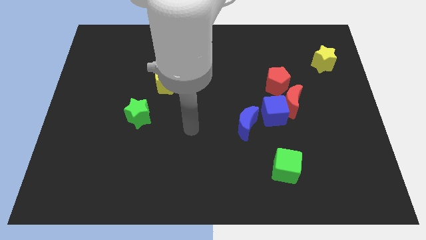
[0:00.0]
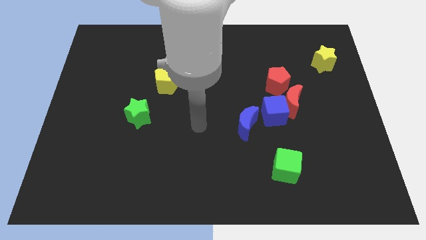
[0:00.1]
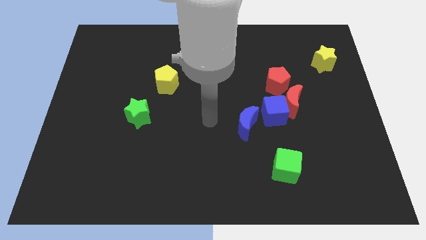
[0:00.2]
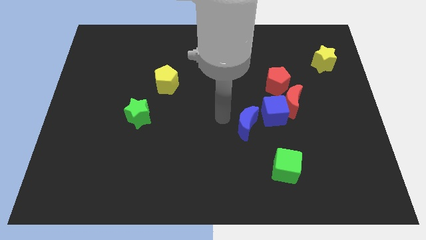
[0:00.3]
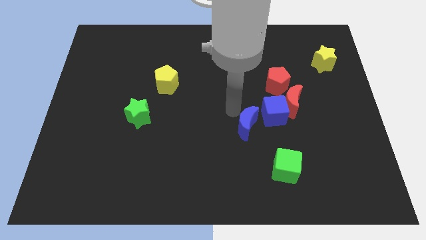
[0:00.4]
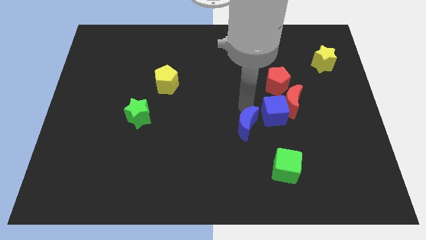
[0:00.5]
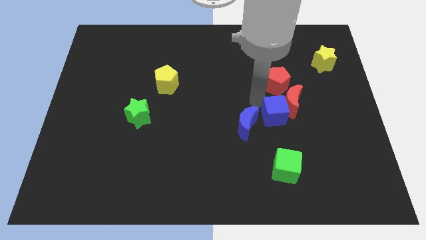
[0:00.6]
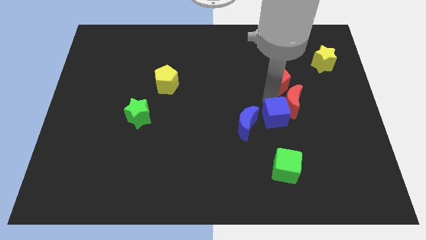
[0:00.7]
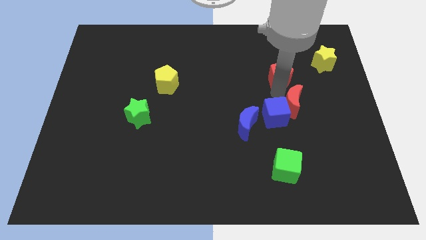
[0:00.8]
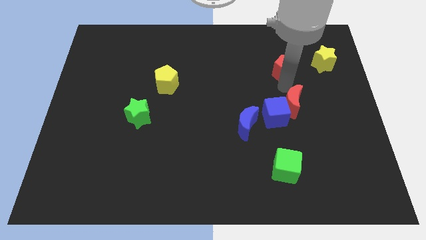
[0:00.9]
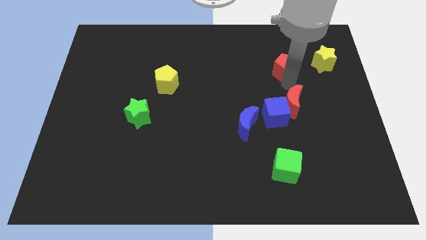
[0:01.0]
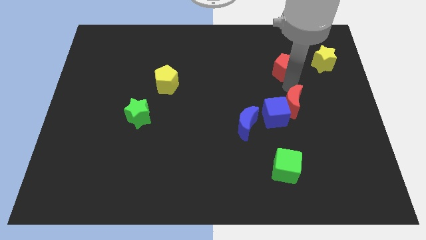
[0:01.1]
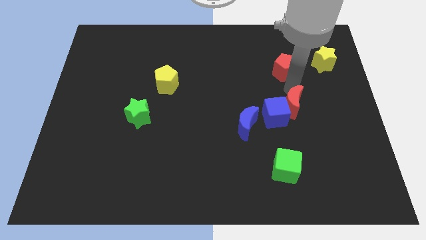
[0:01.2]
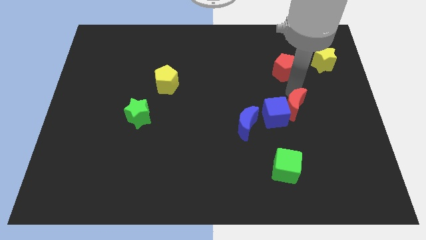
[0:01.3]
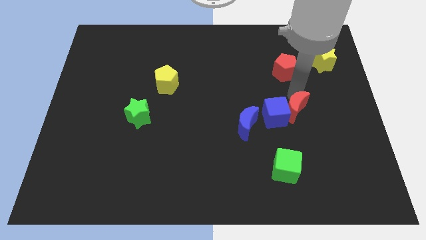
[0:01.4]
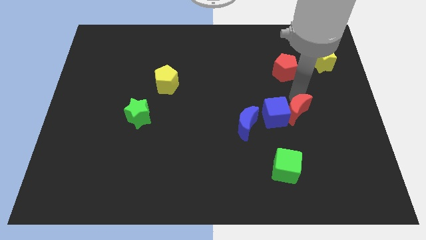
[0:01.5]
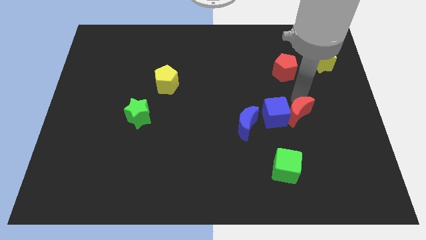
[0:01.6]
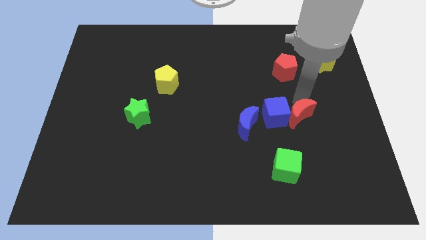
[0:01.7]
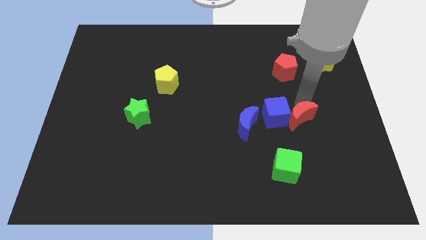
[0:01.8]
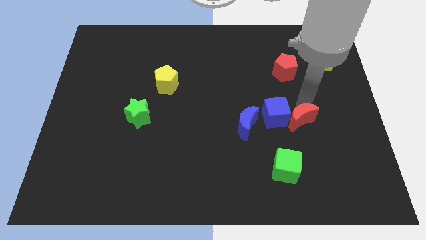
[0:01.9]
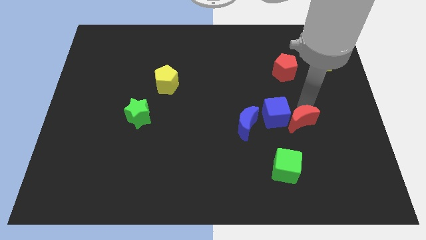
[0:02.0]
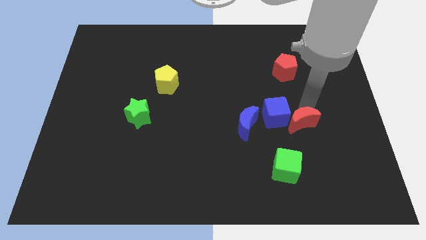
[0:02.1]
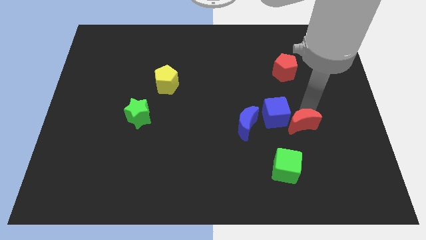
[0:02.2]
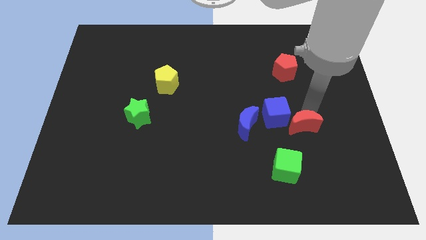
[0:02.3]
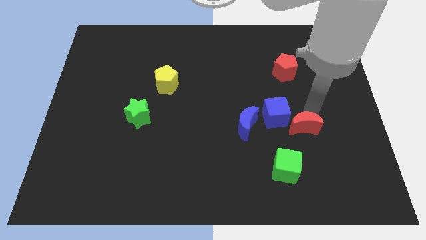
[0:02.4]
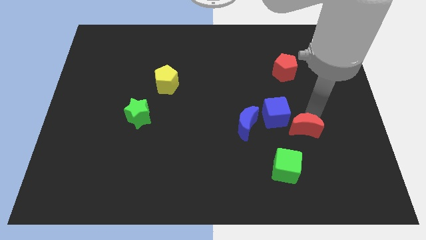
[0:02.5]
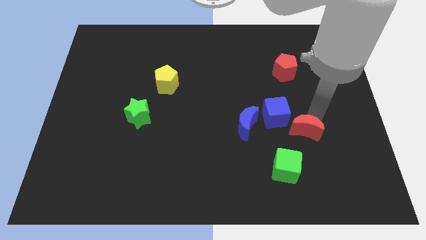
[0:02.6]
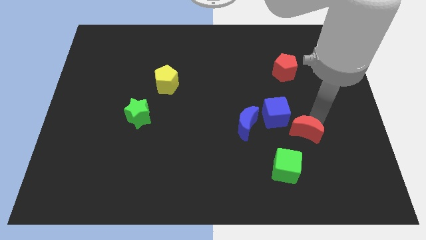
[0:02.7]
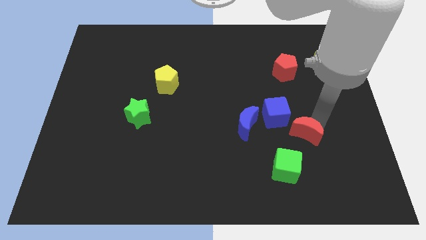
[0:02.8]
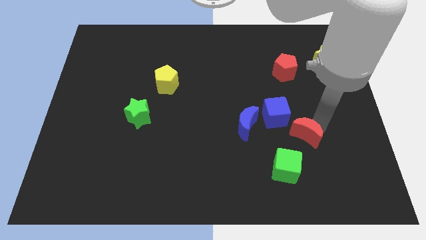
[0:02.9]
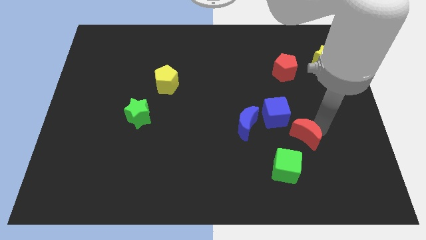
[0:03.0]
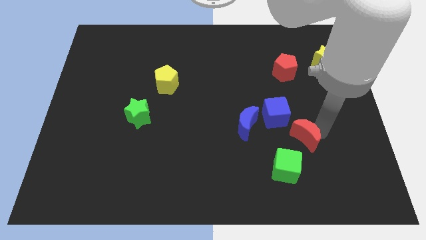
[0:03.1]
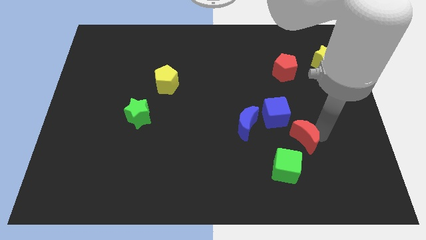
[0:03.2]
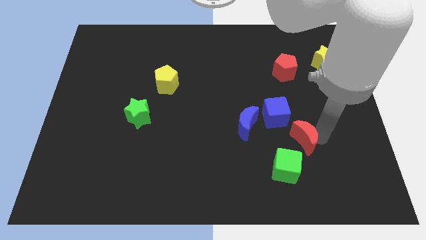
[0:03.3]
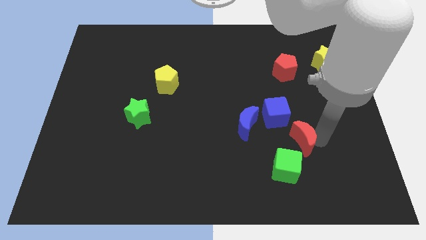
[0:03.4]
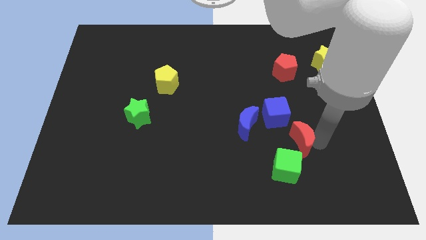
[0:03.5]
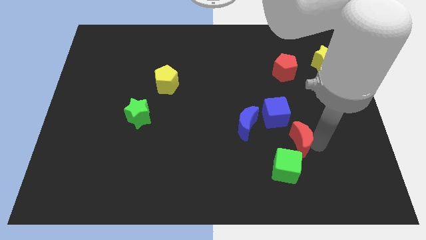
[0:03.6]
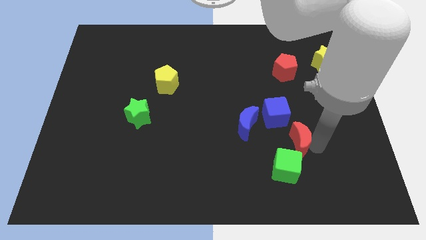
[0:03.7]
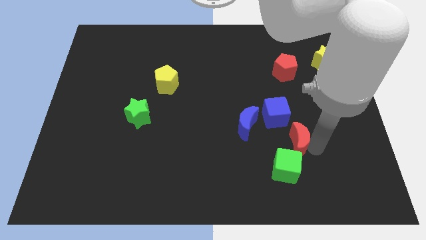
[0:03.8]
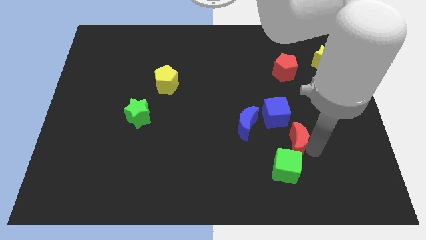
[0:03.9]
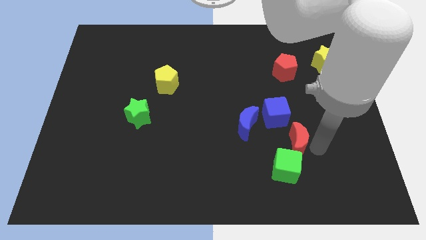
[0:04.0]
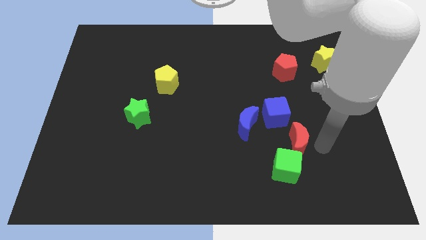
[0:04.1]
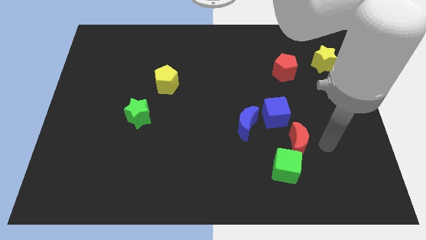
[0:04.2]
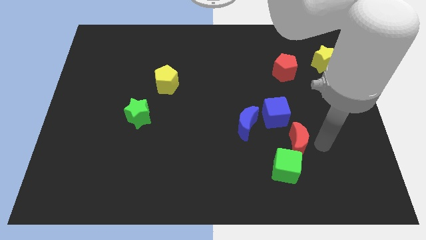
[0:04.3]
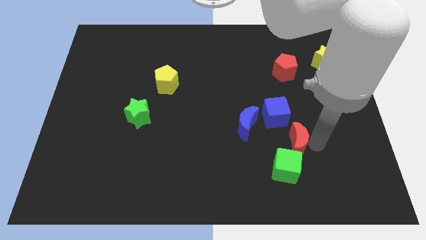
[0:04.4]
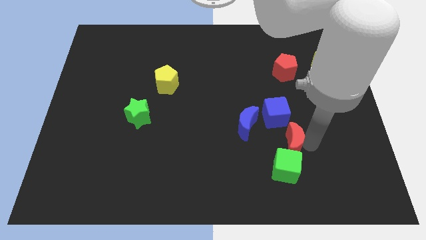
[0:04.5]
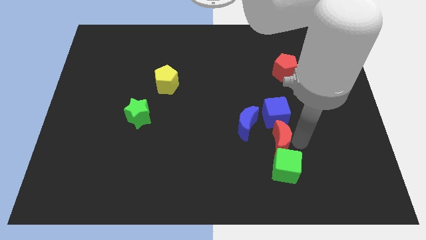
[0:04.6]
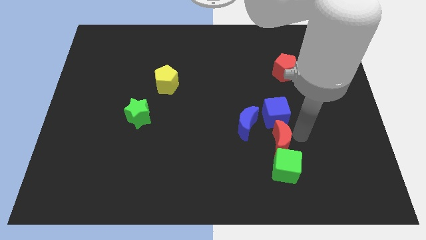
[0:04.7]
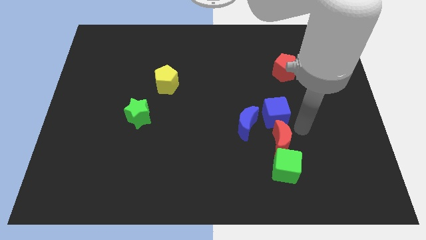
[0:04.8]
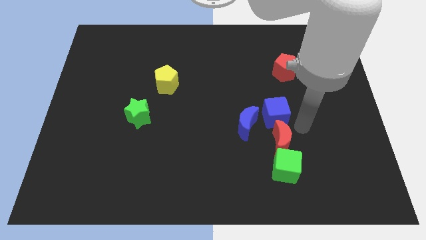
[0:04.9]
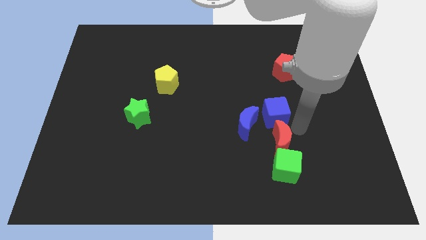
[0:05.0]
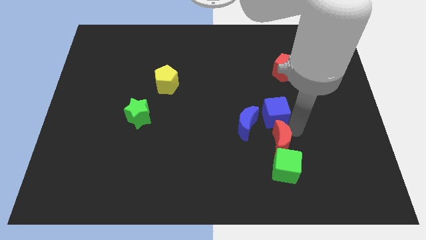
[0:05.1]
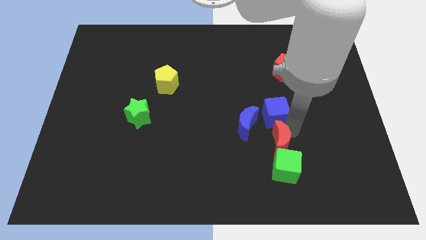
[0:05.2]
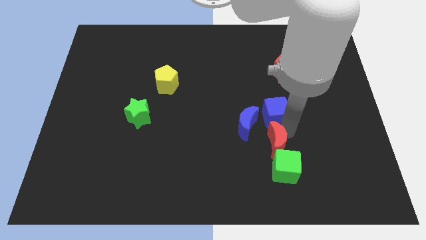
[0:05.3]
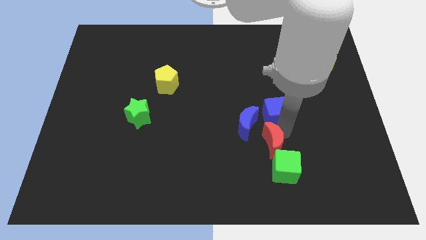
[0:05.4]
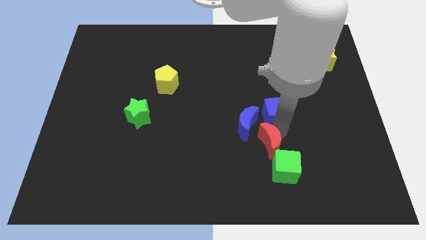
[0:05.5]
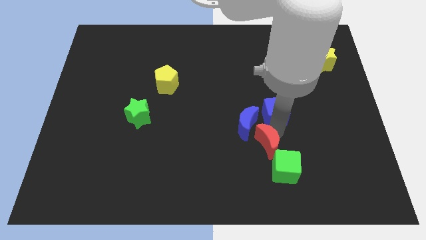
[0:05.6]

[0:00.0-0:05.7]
put the red moon to the bottom of the blue moon
